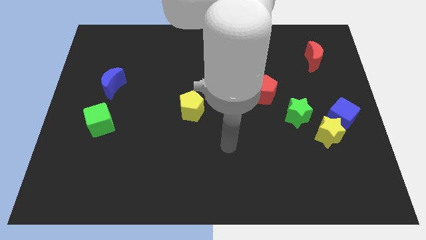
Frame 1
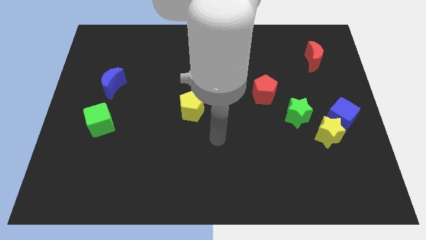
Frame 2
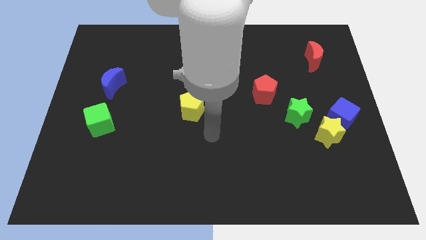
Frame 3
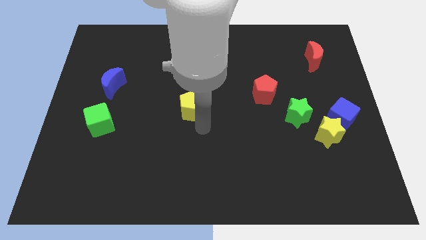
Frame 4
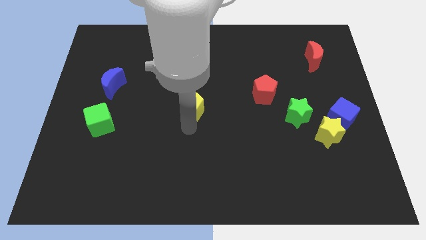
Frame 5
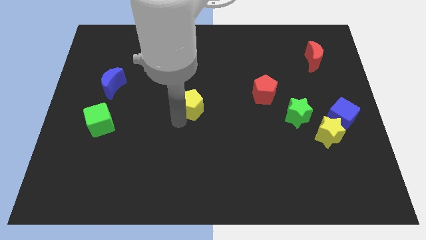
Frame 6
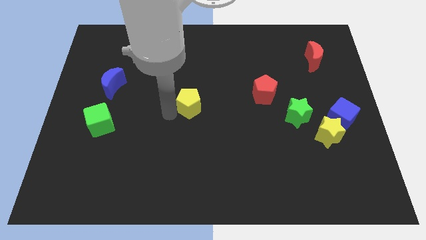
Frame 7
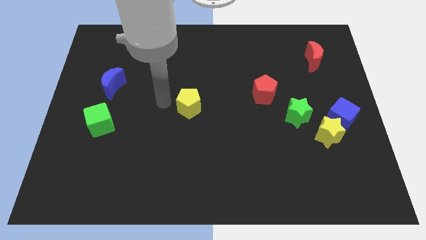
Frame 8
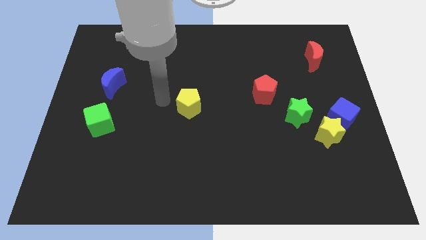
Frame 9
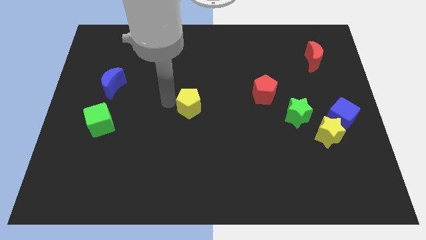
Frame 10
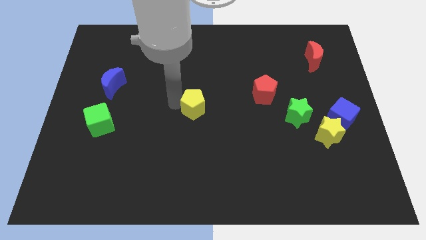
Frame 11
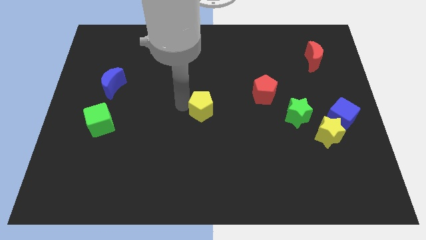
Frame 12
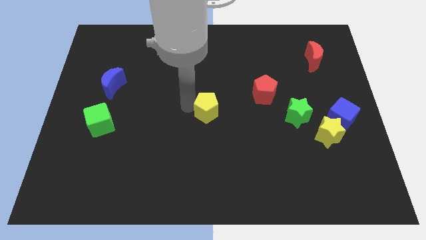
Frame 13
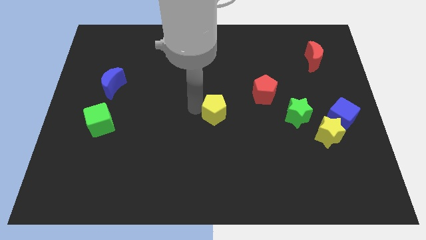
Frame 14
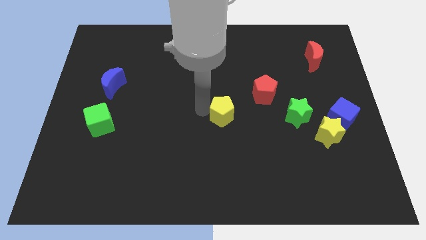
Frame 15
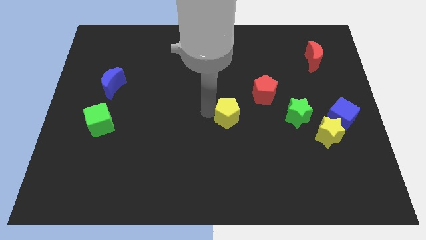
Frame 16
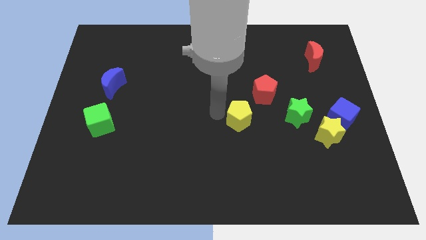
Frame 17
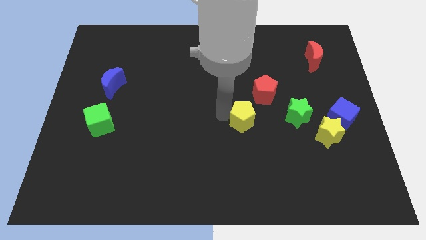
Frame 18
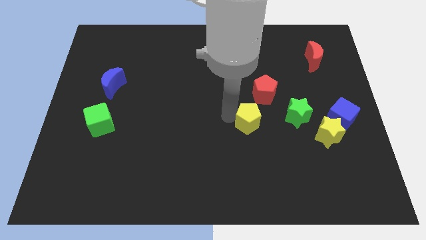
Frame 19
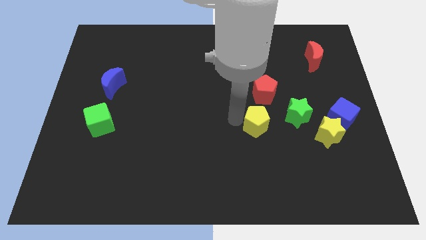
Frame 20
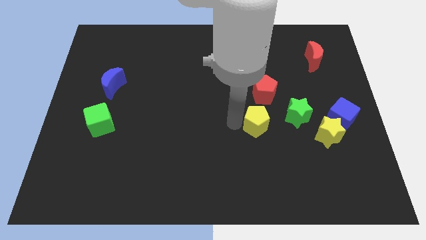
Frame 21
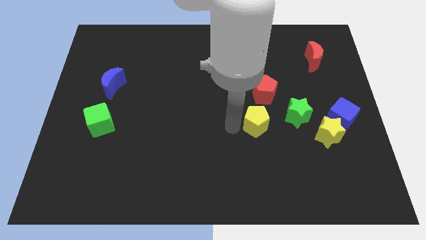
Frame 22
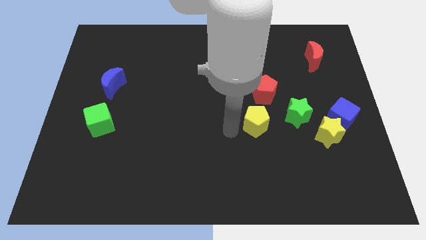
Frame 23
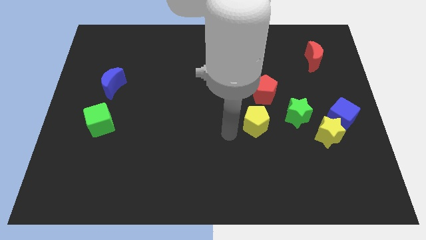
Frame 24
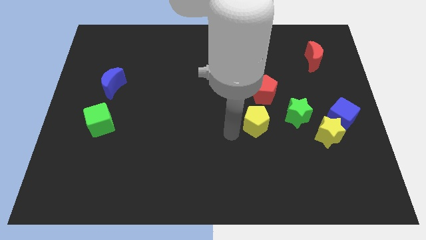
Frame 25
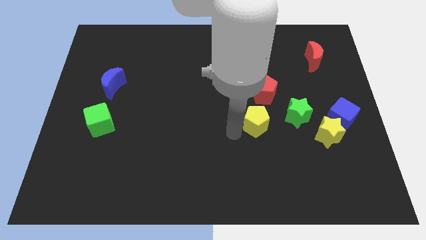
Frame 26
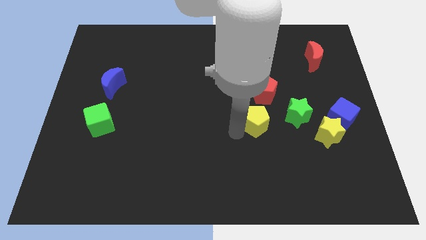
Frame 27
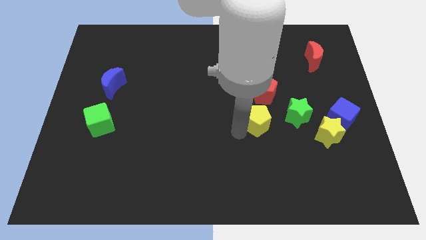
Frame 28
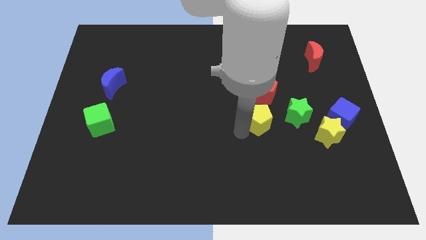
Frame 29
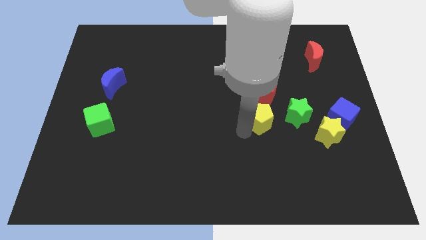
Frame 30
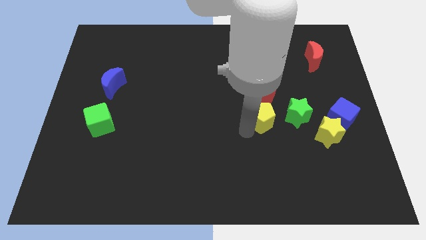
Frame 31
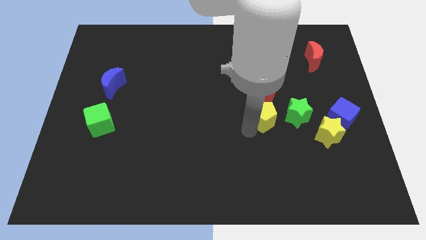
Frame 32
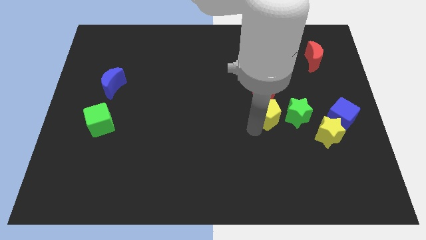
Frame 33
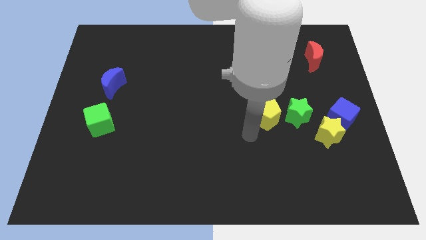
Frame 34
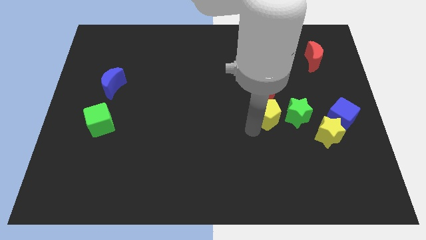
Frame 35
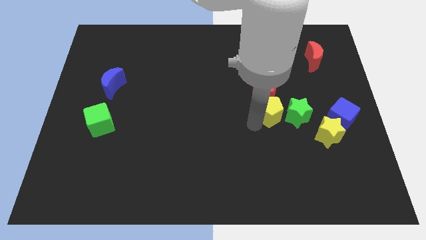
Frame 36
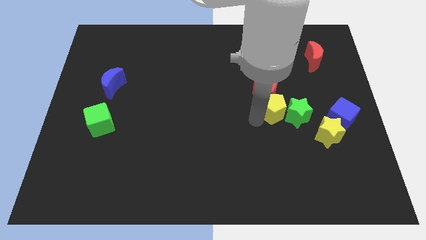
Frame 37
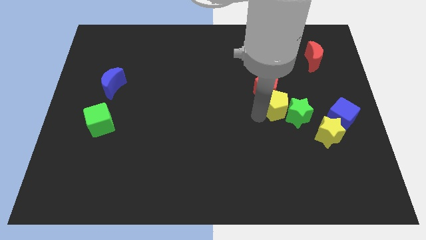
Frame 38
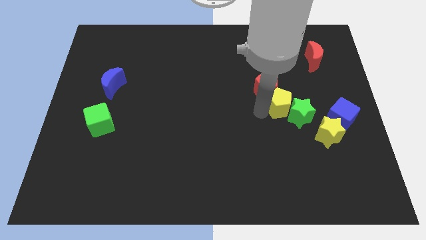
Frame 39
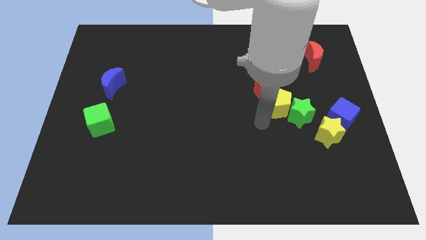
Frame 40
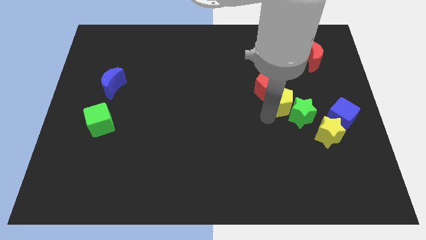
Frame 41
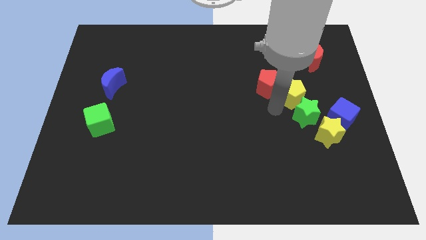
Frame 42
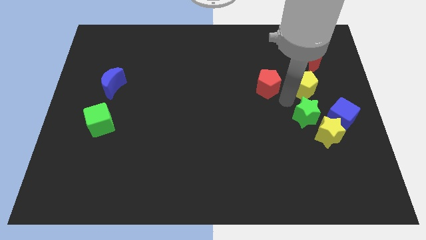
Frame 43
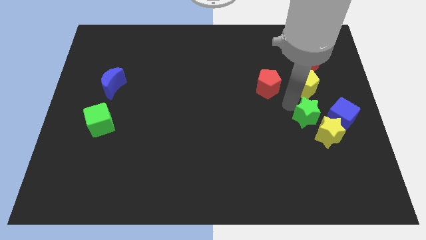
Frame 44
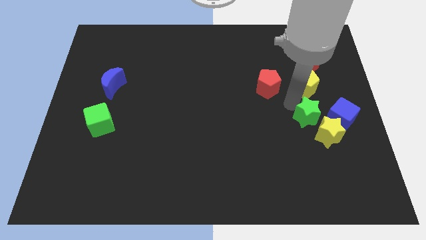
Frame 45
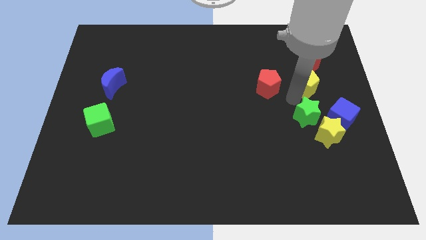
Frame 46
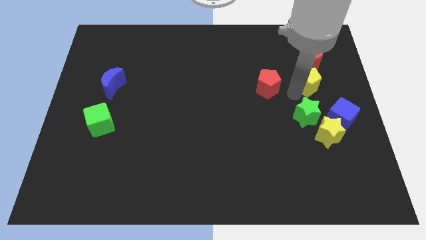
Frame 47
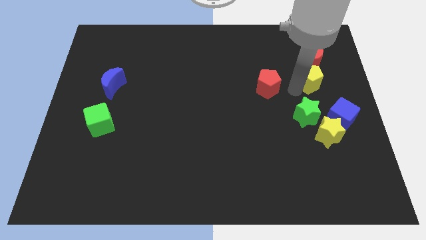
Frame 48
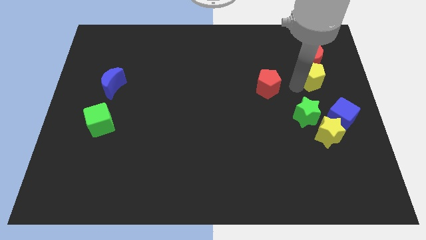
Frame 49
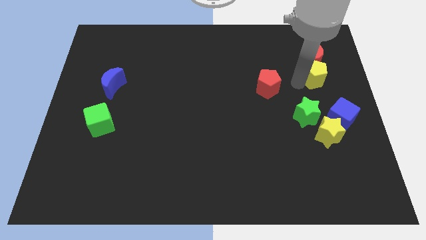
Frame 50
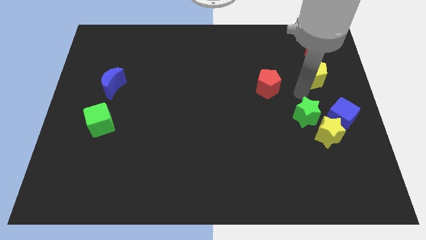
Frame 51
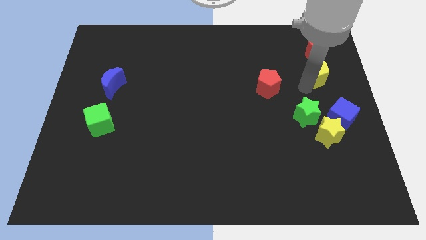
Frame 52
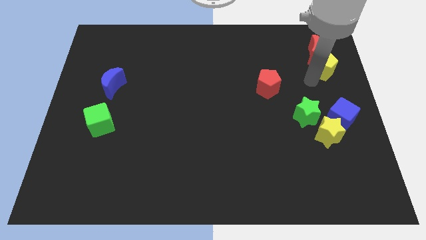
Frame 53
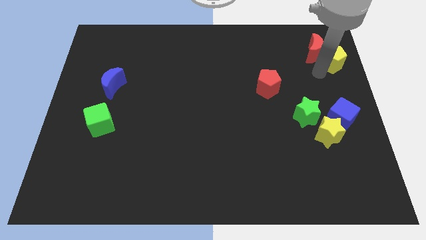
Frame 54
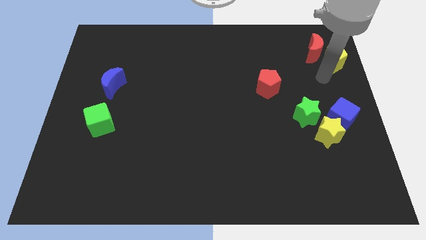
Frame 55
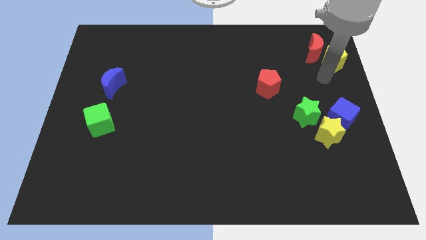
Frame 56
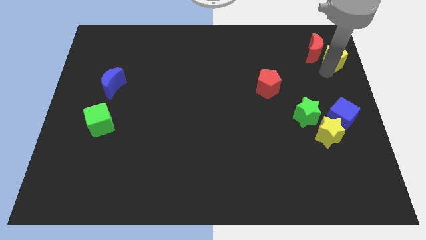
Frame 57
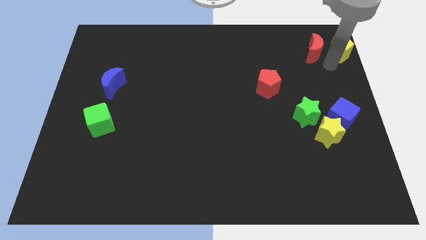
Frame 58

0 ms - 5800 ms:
put the yellow pentagon to the top right
